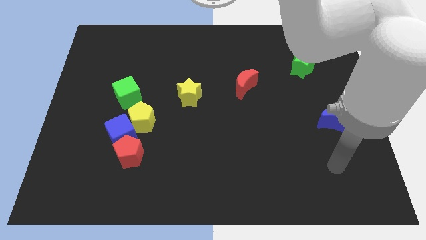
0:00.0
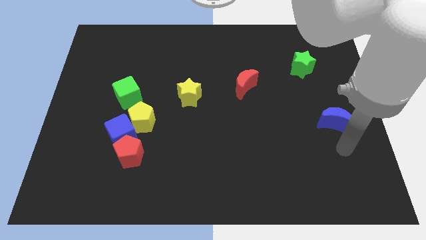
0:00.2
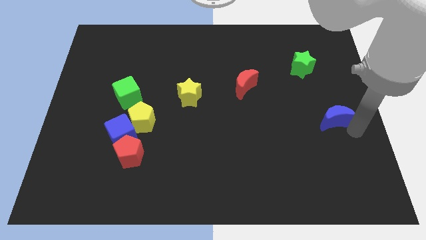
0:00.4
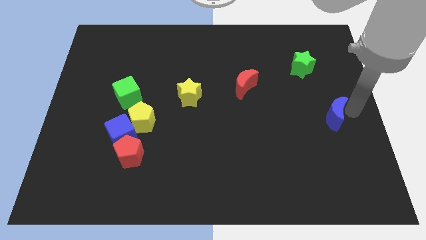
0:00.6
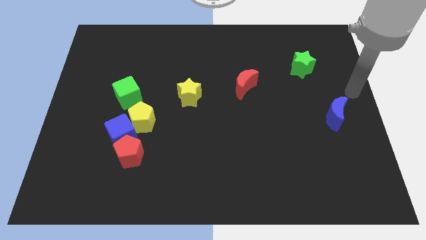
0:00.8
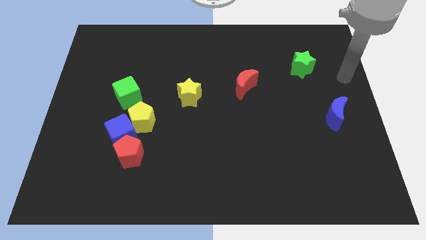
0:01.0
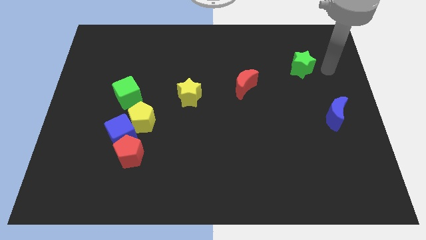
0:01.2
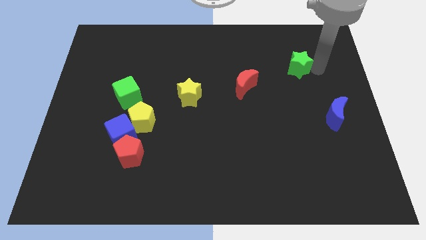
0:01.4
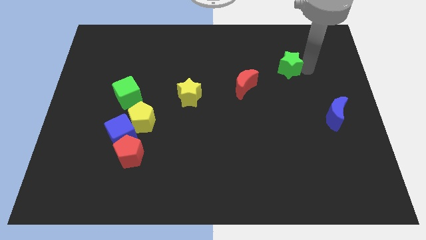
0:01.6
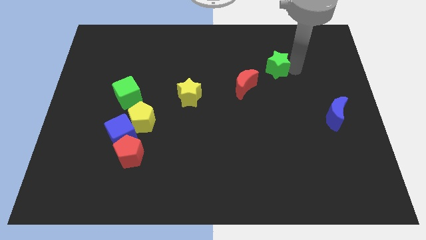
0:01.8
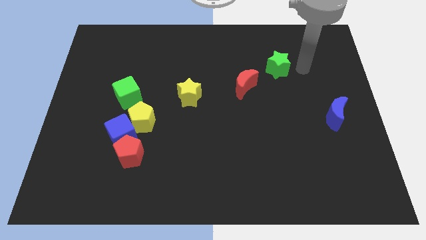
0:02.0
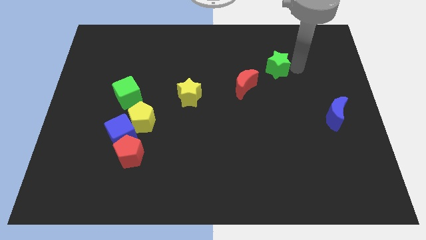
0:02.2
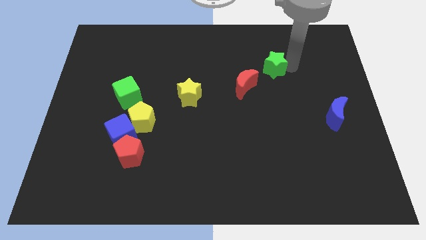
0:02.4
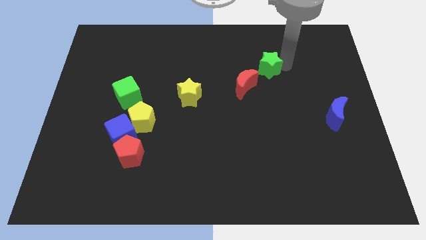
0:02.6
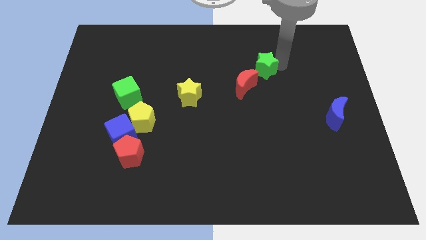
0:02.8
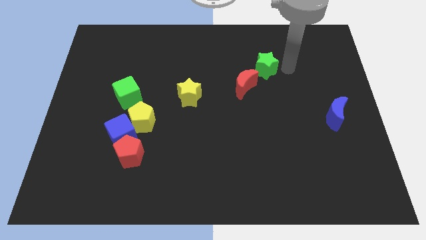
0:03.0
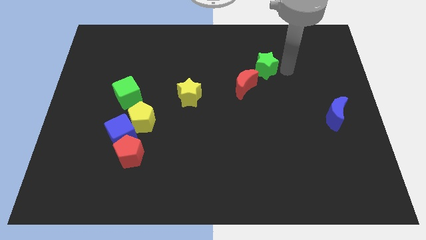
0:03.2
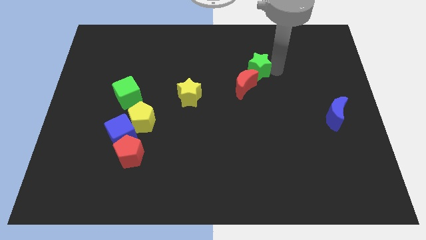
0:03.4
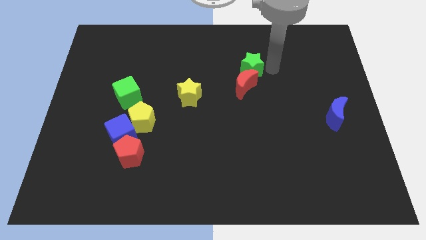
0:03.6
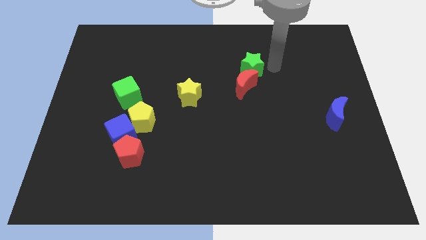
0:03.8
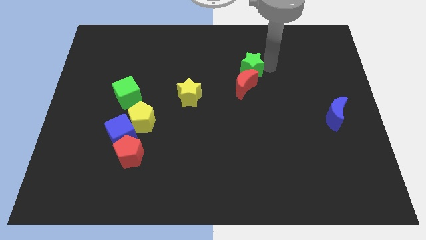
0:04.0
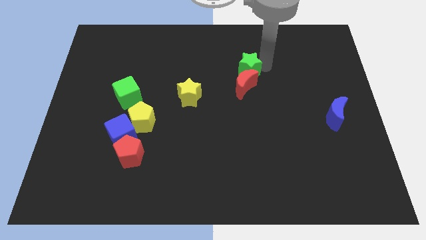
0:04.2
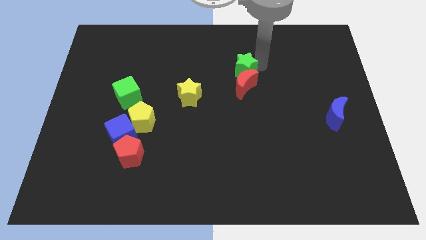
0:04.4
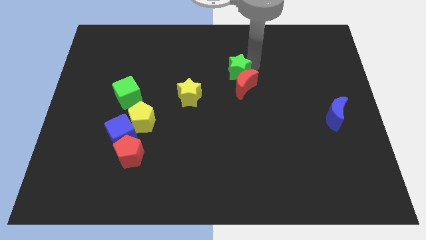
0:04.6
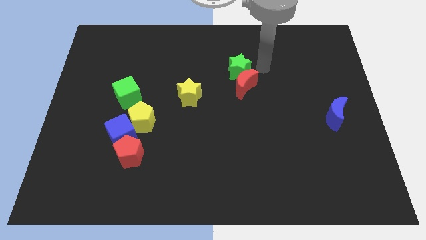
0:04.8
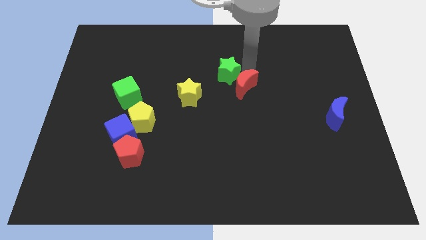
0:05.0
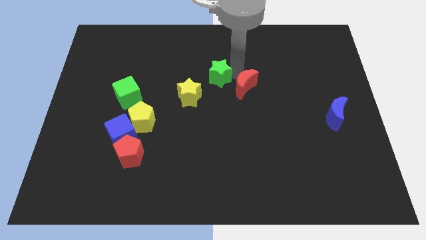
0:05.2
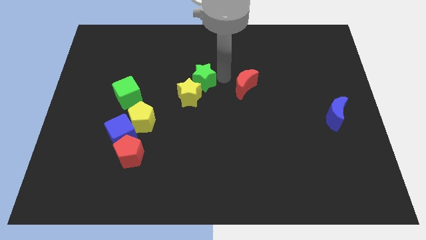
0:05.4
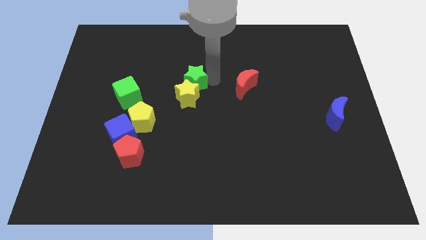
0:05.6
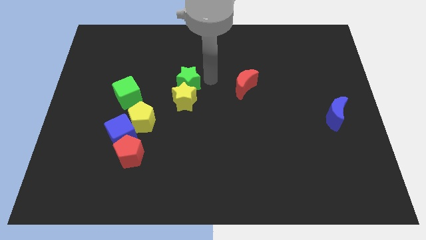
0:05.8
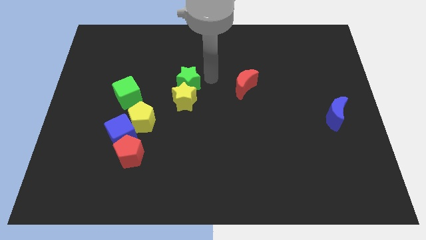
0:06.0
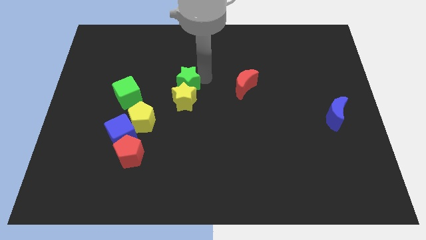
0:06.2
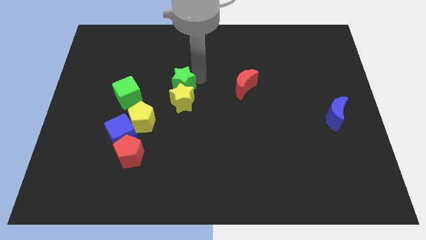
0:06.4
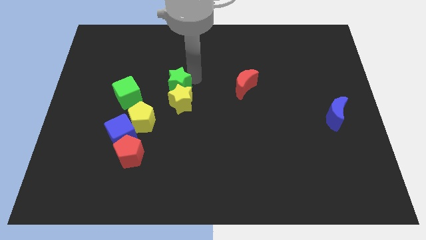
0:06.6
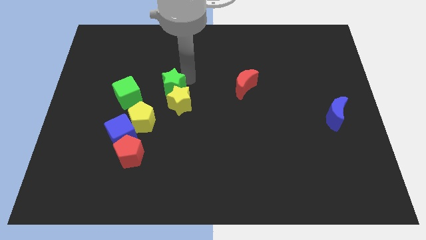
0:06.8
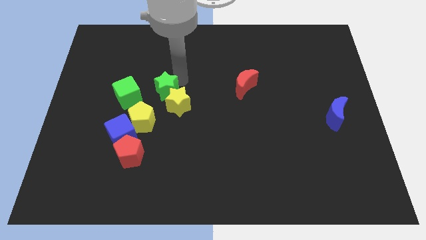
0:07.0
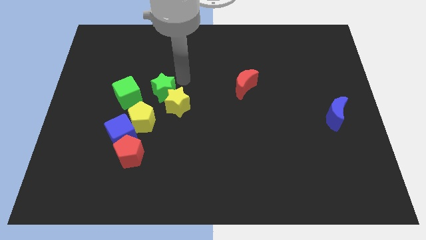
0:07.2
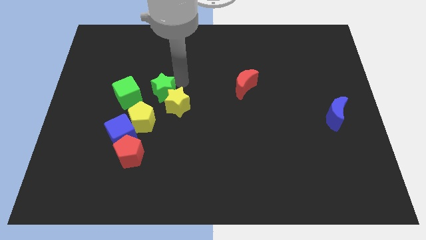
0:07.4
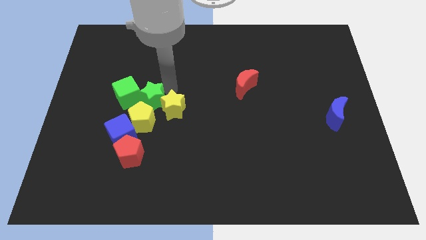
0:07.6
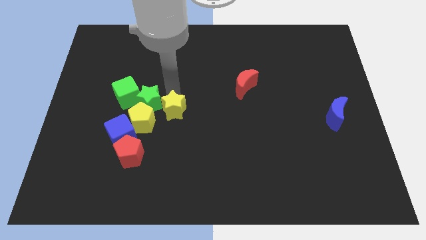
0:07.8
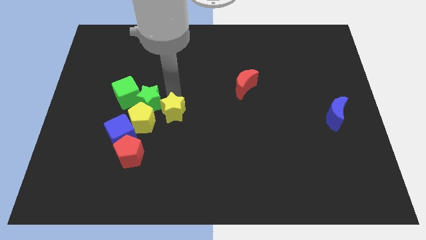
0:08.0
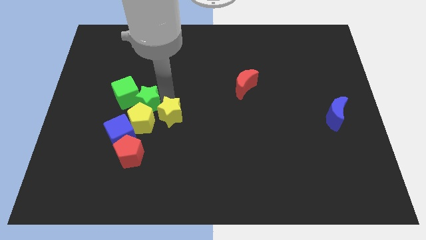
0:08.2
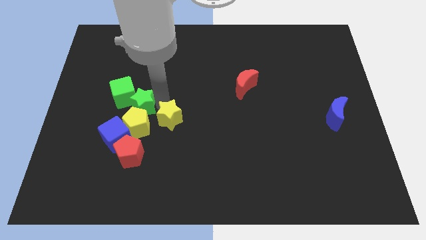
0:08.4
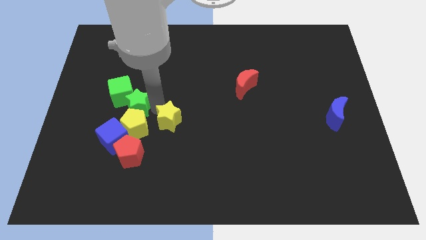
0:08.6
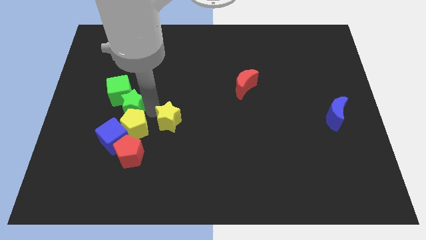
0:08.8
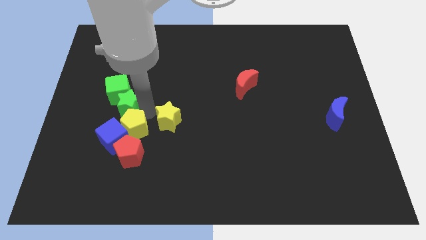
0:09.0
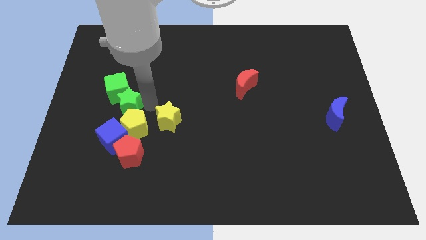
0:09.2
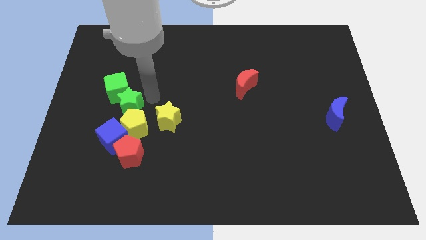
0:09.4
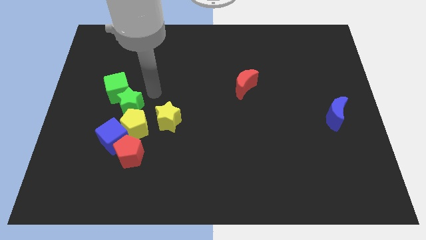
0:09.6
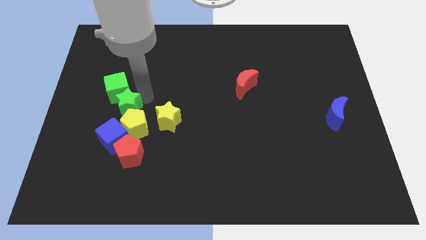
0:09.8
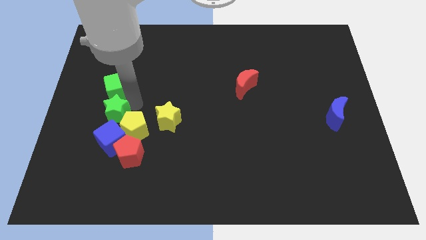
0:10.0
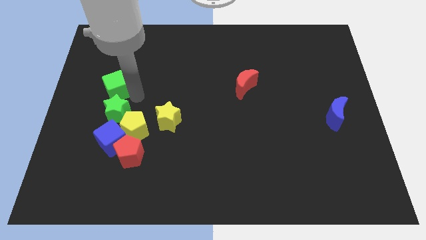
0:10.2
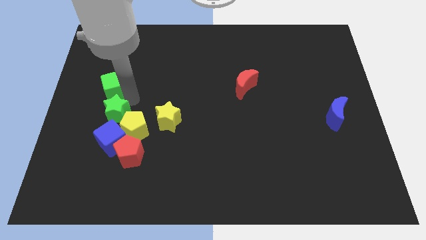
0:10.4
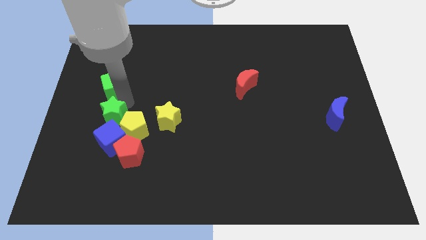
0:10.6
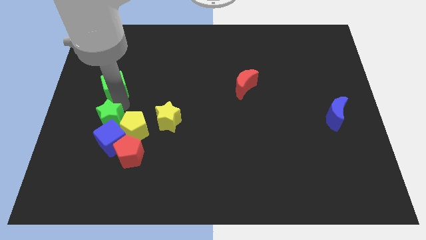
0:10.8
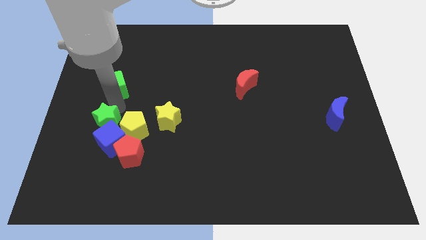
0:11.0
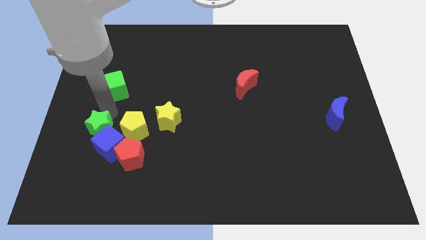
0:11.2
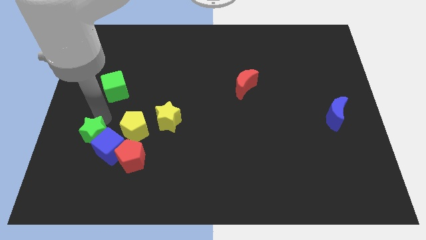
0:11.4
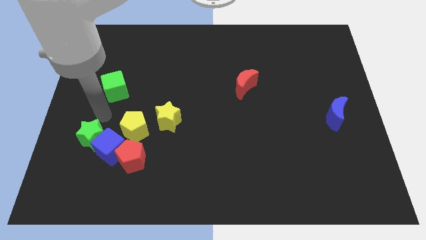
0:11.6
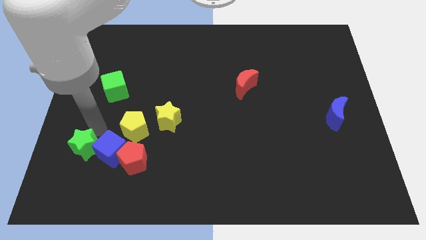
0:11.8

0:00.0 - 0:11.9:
put the green star to the bottom left of the blue cube

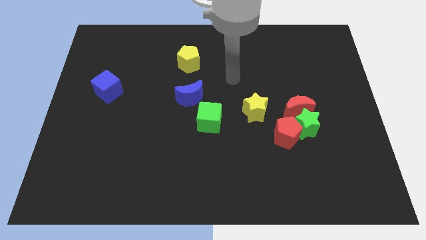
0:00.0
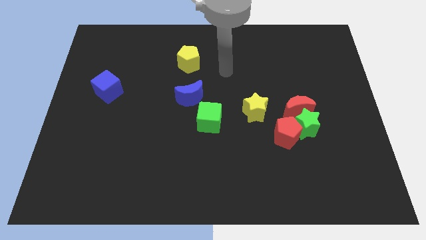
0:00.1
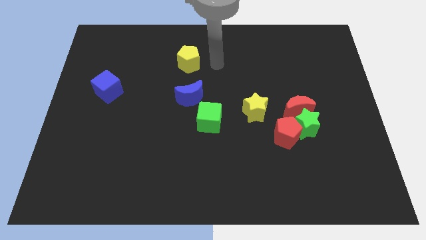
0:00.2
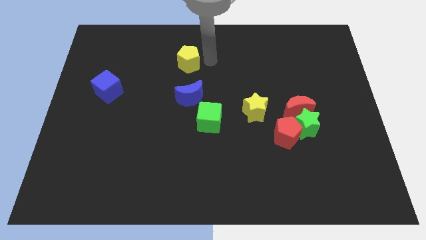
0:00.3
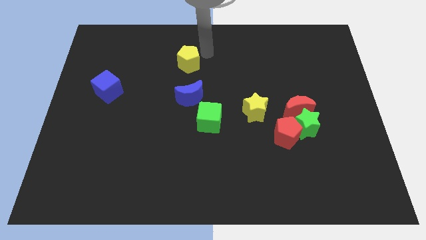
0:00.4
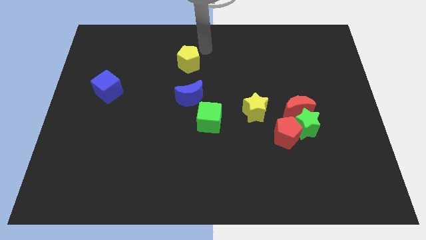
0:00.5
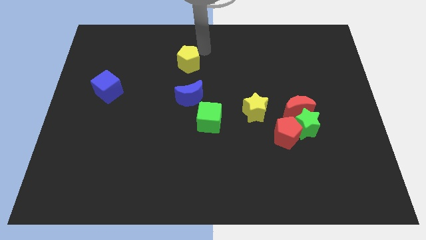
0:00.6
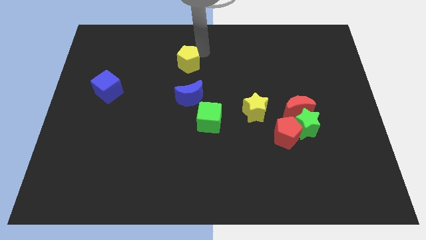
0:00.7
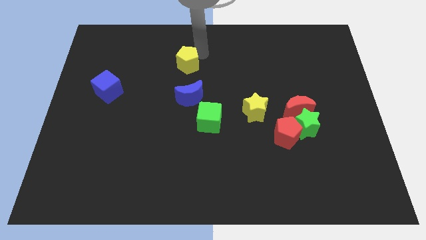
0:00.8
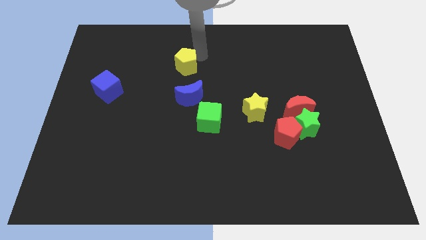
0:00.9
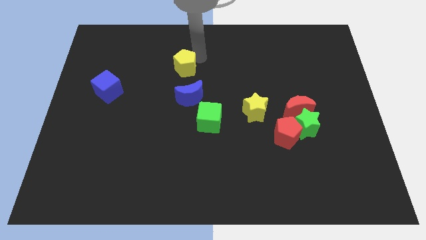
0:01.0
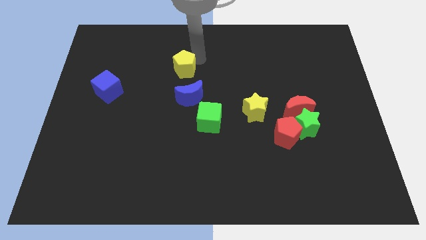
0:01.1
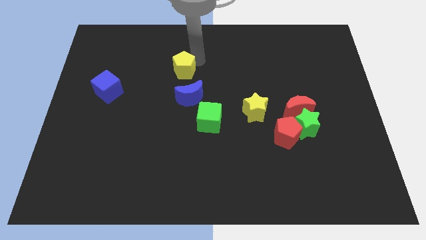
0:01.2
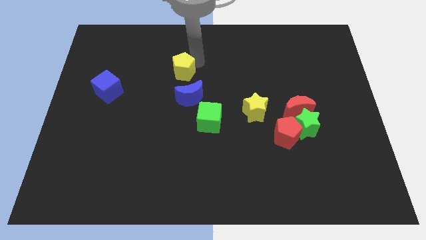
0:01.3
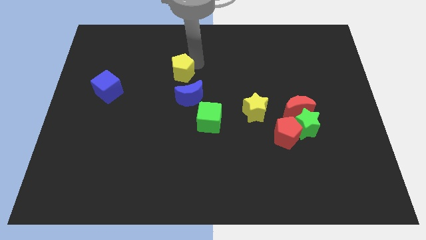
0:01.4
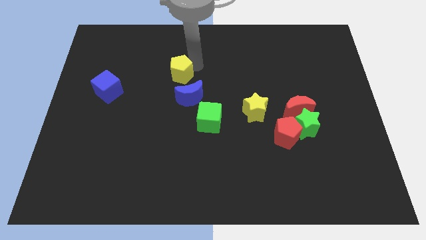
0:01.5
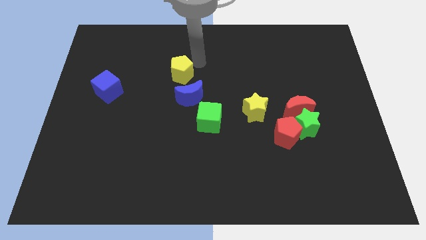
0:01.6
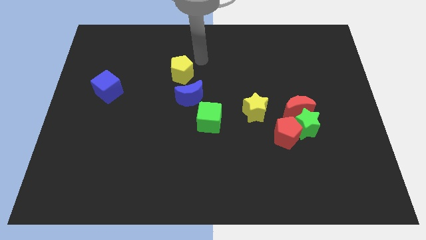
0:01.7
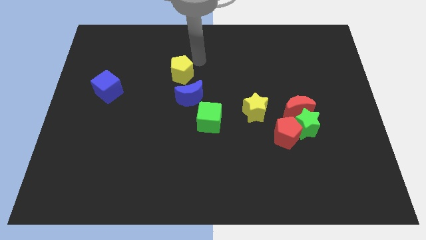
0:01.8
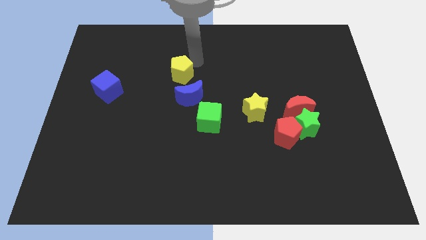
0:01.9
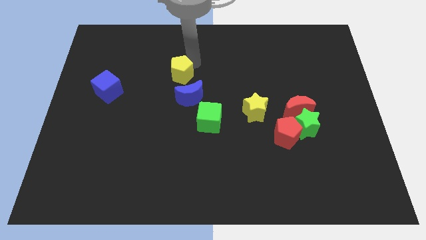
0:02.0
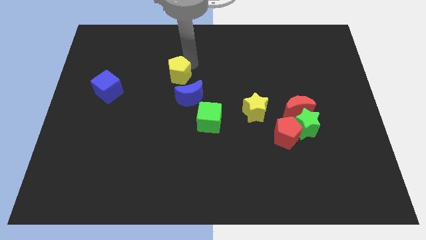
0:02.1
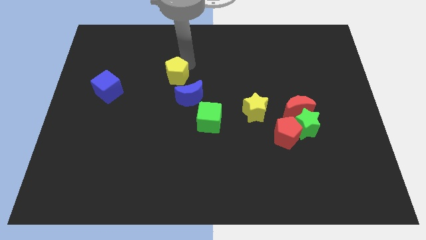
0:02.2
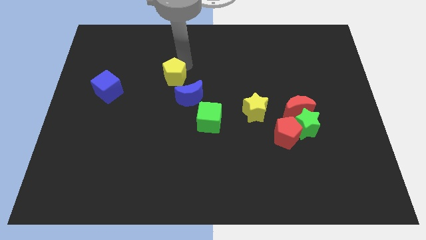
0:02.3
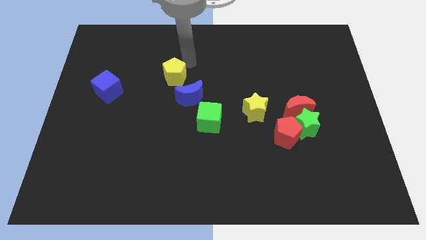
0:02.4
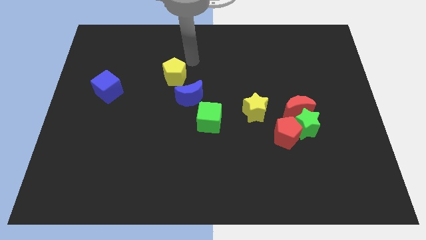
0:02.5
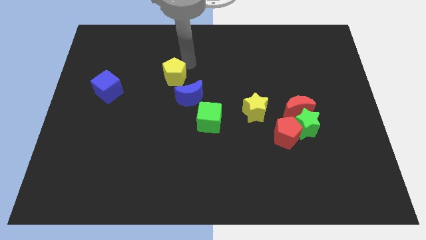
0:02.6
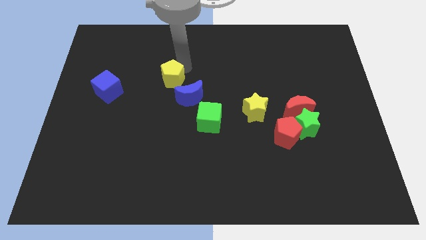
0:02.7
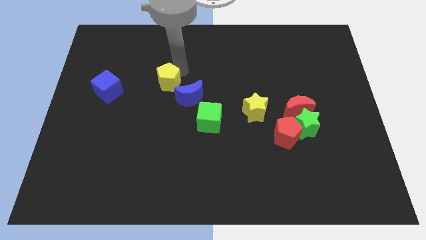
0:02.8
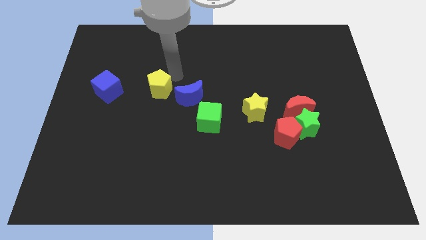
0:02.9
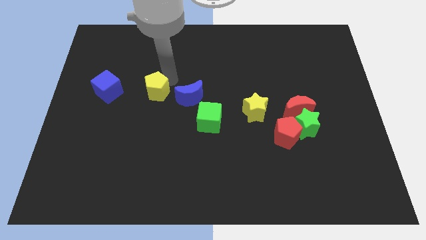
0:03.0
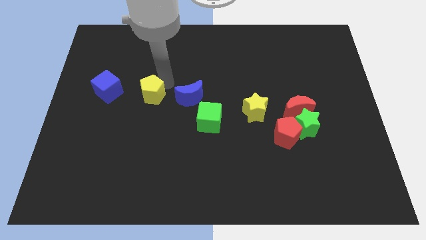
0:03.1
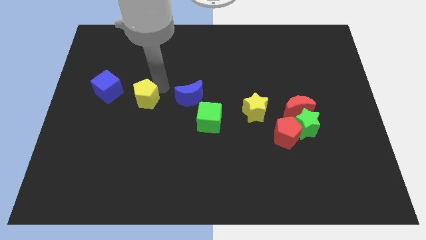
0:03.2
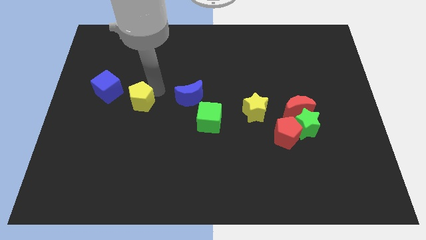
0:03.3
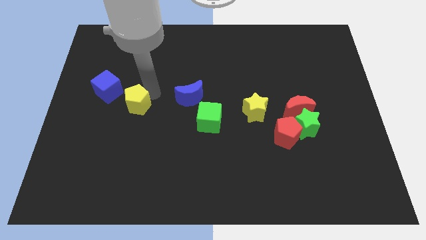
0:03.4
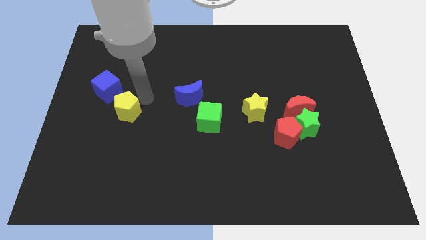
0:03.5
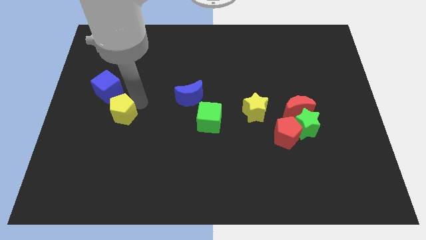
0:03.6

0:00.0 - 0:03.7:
push the yellow pentagon below the blue cube
